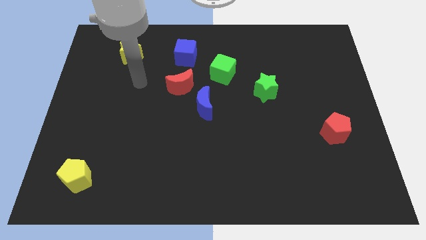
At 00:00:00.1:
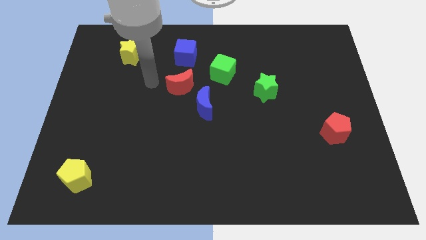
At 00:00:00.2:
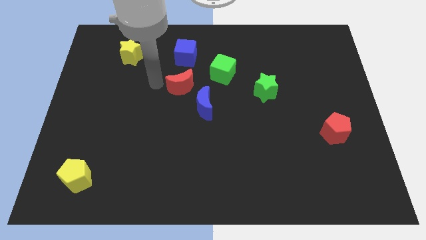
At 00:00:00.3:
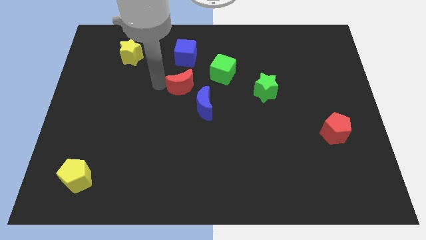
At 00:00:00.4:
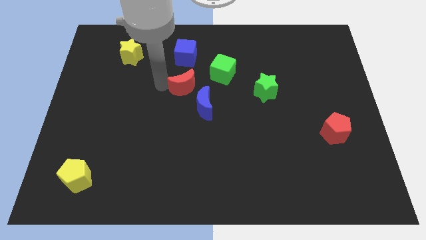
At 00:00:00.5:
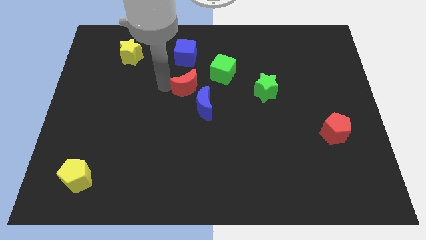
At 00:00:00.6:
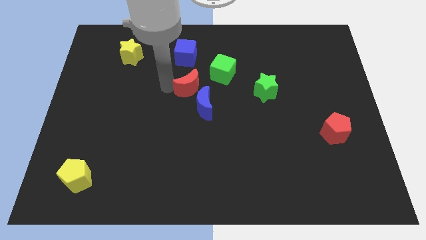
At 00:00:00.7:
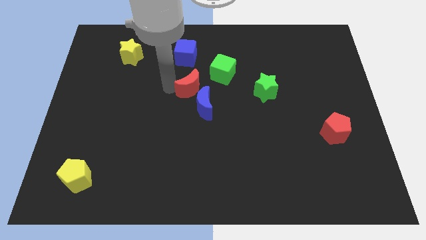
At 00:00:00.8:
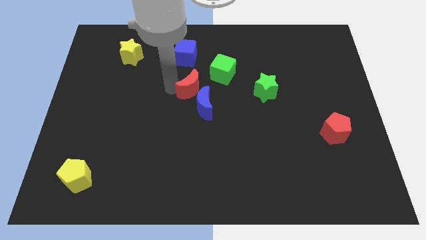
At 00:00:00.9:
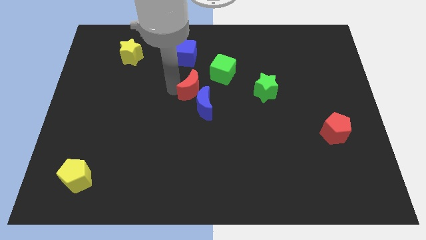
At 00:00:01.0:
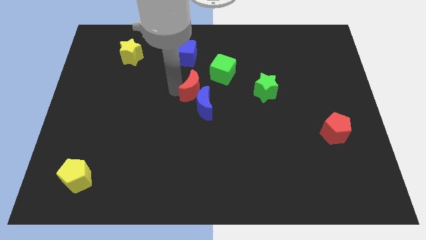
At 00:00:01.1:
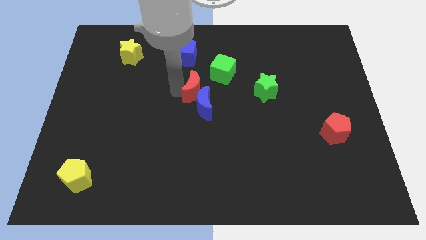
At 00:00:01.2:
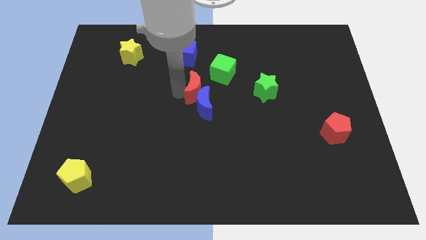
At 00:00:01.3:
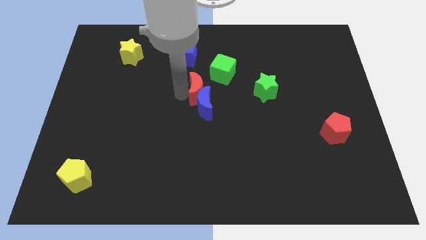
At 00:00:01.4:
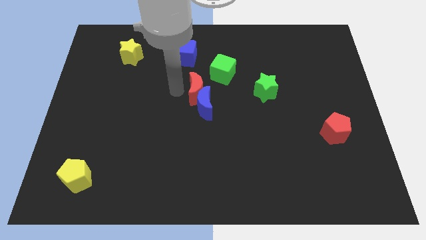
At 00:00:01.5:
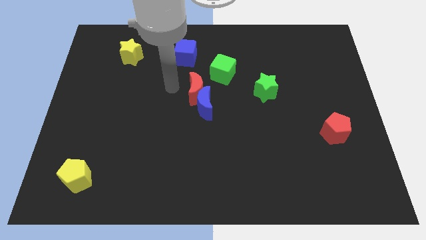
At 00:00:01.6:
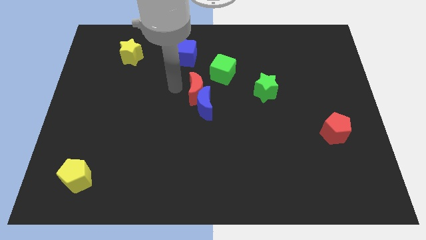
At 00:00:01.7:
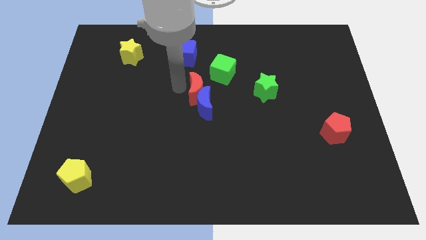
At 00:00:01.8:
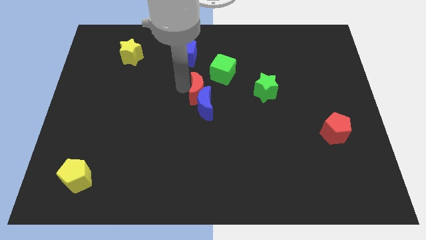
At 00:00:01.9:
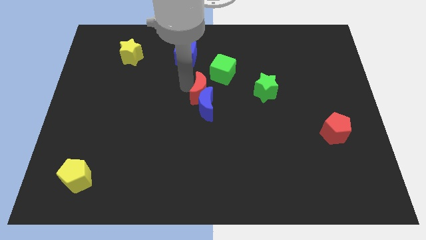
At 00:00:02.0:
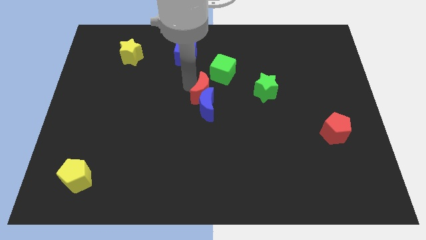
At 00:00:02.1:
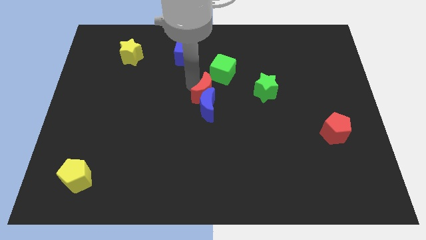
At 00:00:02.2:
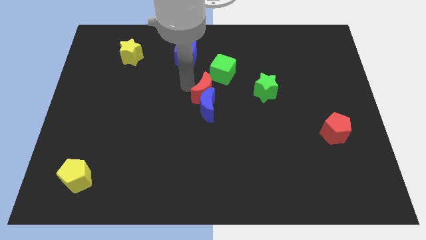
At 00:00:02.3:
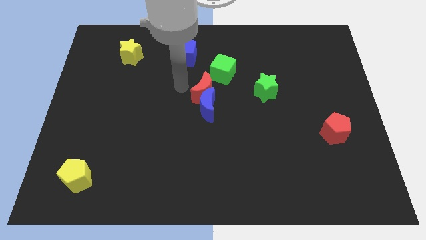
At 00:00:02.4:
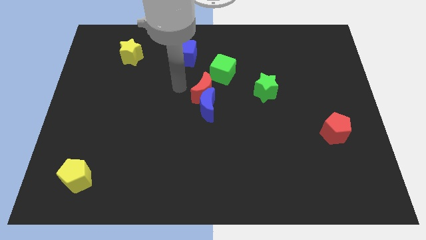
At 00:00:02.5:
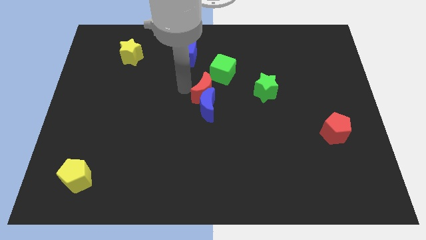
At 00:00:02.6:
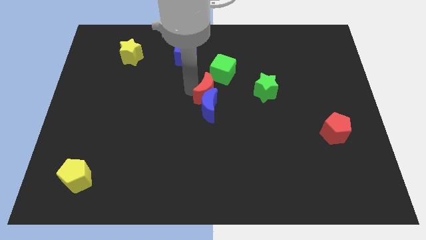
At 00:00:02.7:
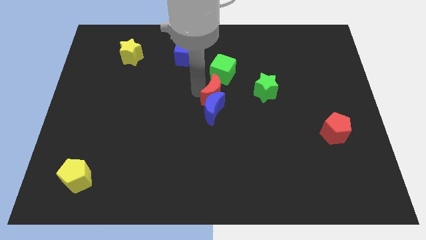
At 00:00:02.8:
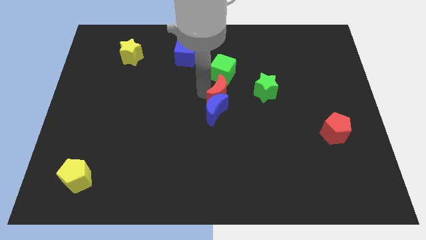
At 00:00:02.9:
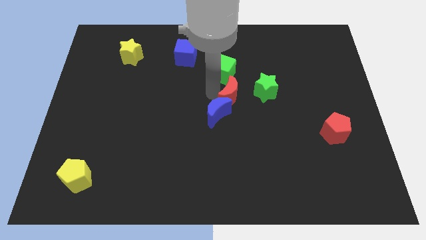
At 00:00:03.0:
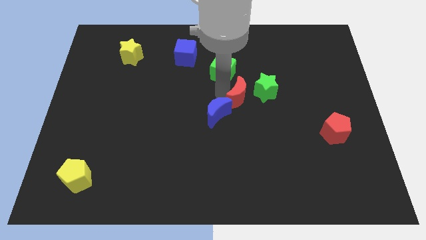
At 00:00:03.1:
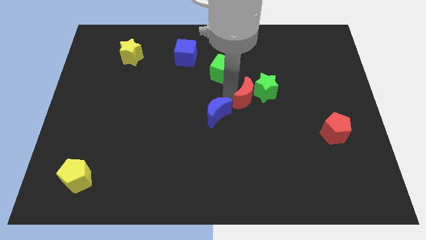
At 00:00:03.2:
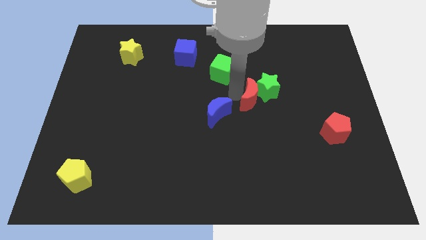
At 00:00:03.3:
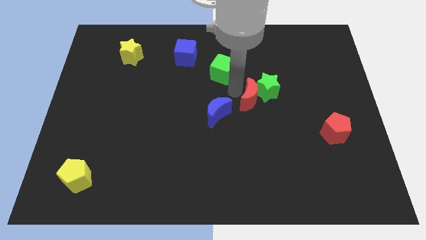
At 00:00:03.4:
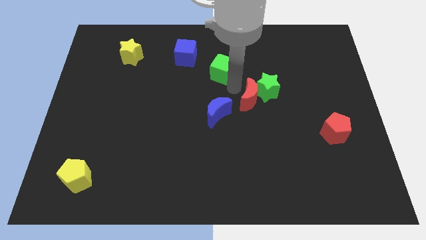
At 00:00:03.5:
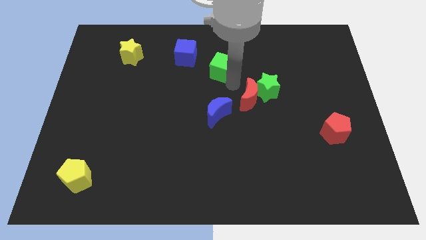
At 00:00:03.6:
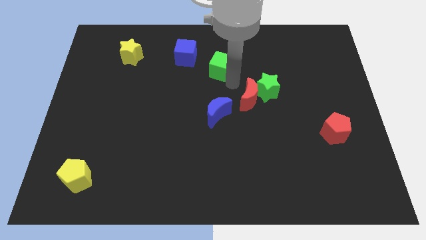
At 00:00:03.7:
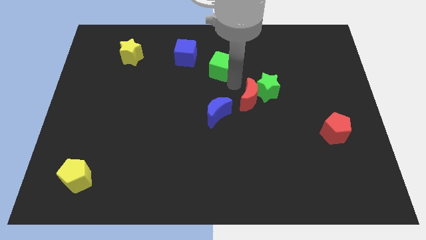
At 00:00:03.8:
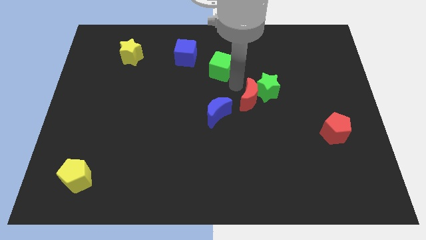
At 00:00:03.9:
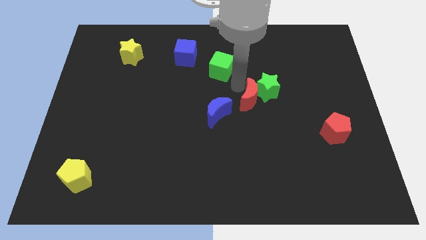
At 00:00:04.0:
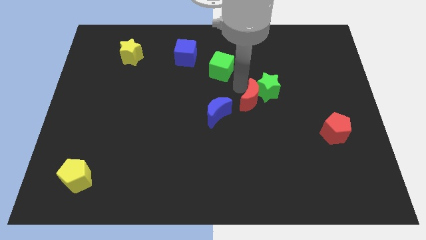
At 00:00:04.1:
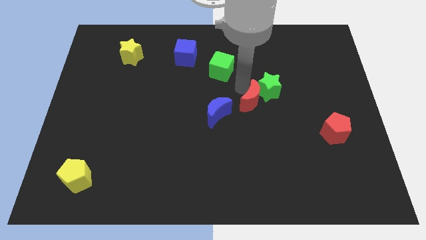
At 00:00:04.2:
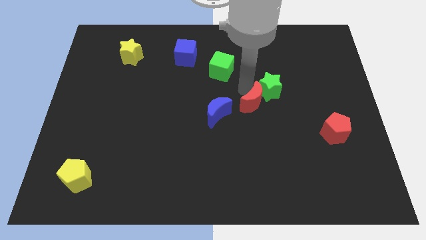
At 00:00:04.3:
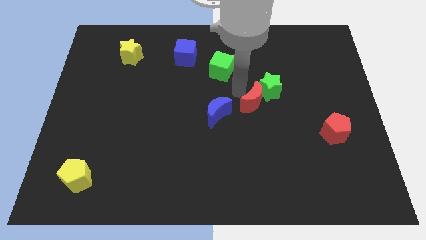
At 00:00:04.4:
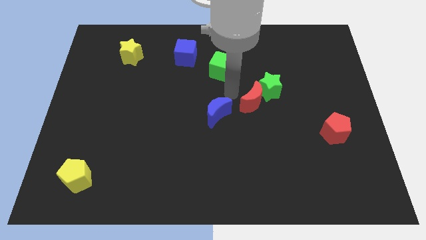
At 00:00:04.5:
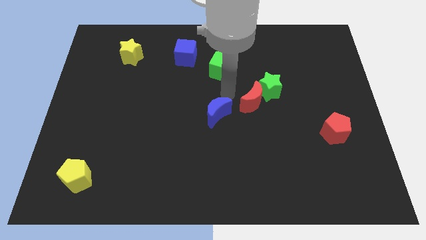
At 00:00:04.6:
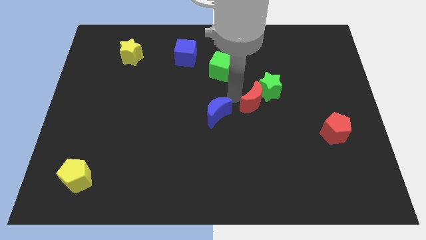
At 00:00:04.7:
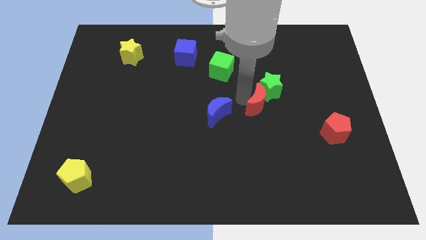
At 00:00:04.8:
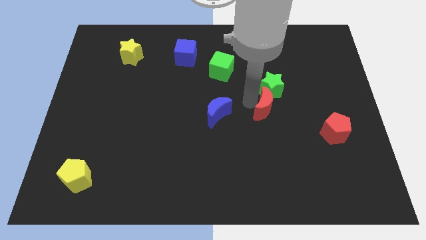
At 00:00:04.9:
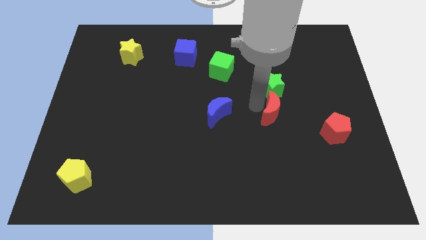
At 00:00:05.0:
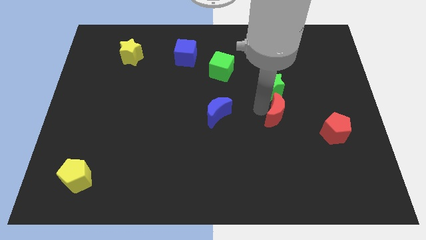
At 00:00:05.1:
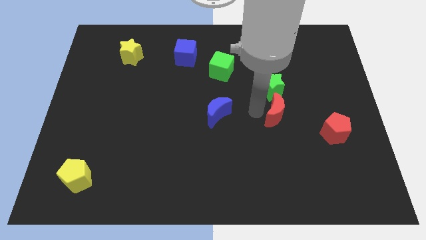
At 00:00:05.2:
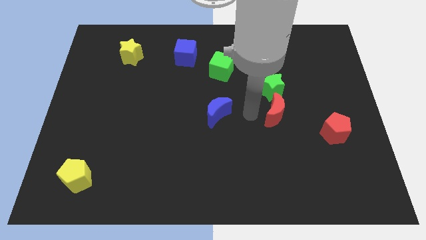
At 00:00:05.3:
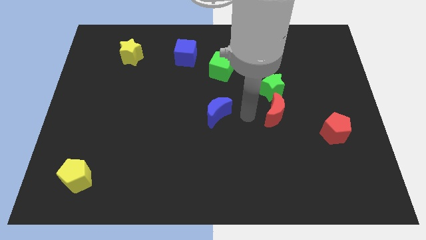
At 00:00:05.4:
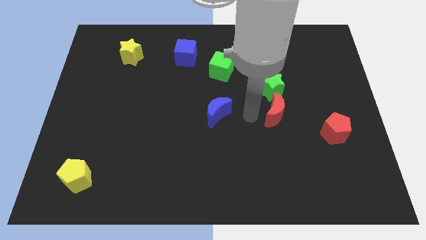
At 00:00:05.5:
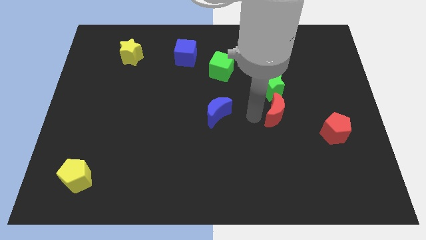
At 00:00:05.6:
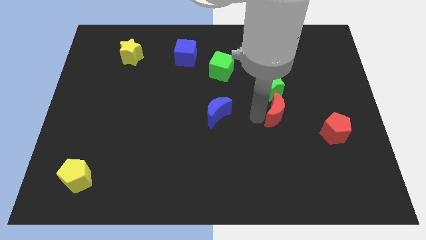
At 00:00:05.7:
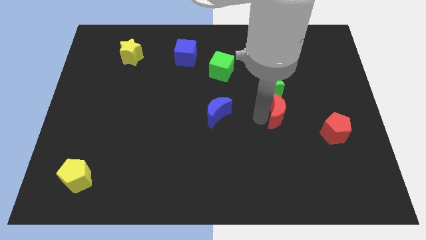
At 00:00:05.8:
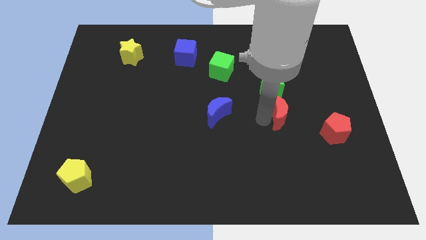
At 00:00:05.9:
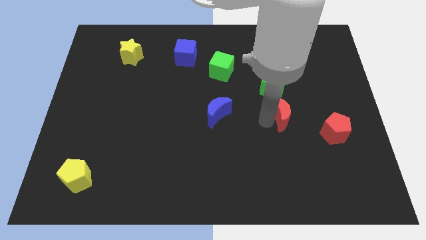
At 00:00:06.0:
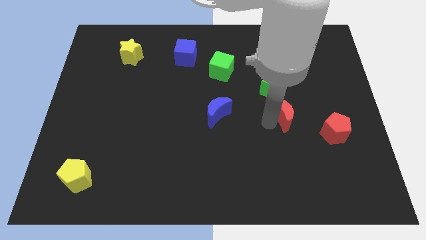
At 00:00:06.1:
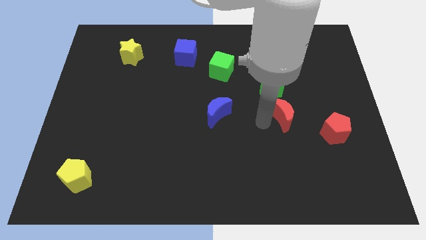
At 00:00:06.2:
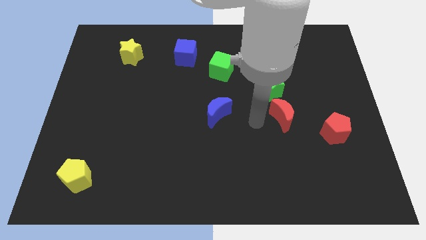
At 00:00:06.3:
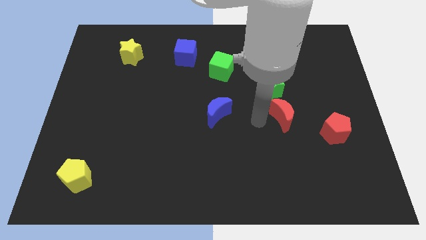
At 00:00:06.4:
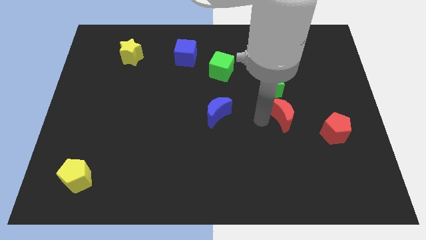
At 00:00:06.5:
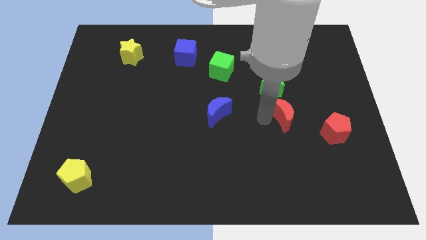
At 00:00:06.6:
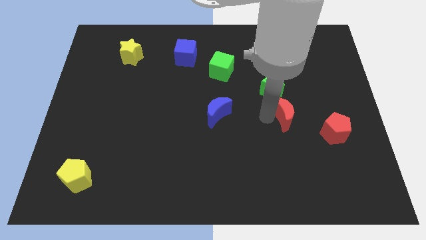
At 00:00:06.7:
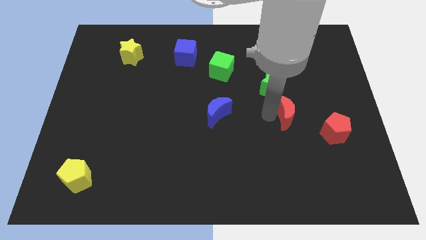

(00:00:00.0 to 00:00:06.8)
slide the red moon to the top left side of the red pentagon
